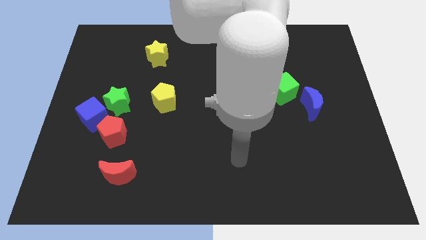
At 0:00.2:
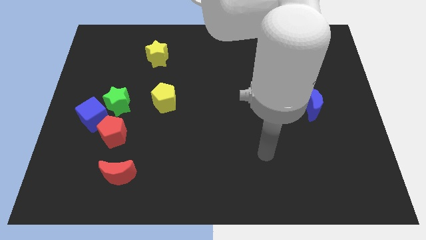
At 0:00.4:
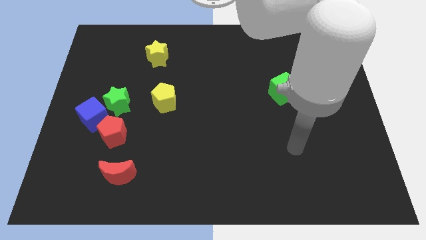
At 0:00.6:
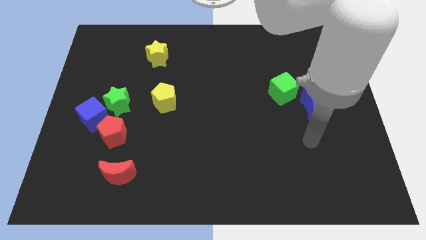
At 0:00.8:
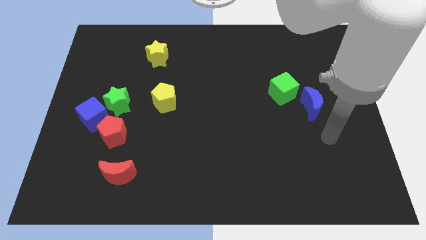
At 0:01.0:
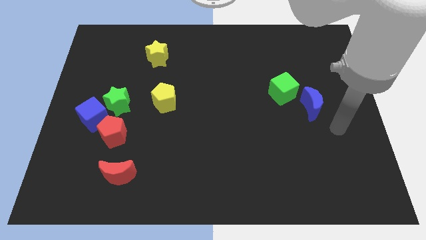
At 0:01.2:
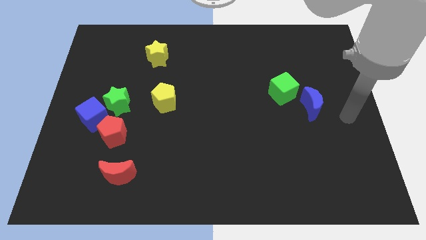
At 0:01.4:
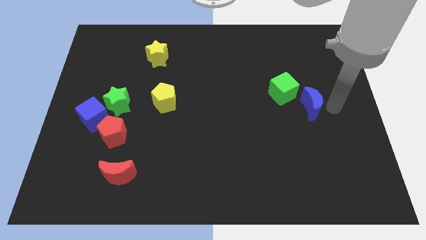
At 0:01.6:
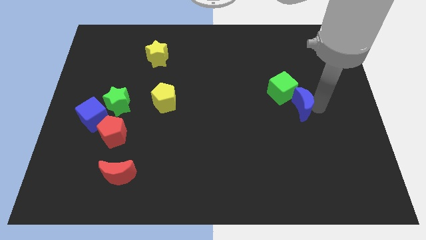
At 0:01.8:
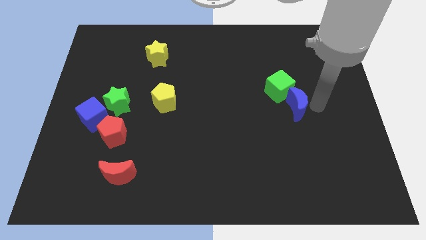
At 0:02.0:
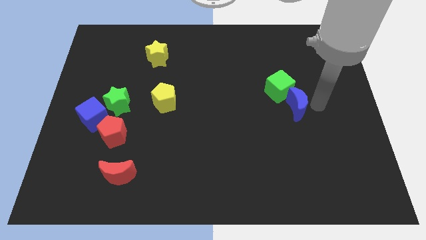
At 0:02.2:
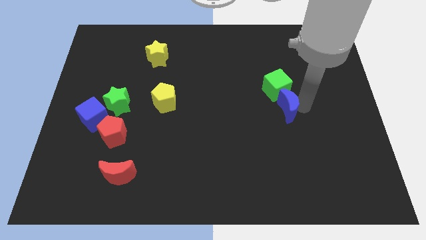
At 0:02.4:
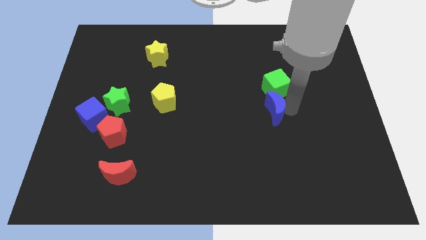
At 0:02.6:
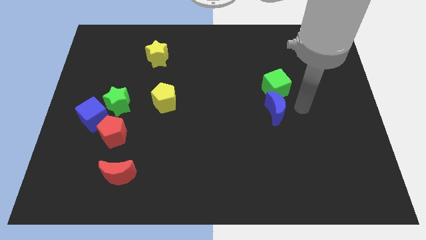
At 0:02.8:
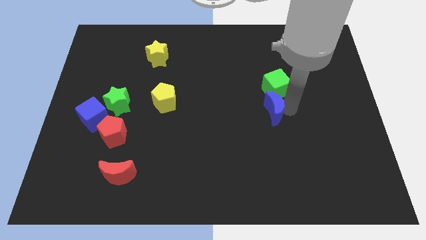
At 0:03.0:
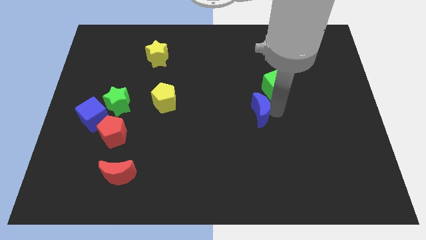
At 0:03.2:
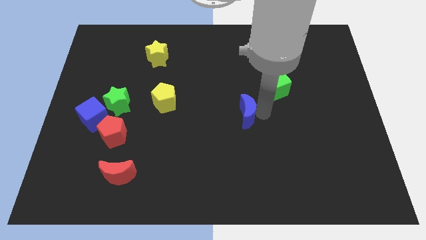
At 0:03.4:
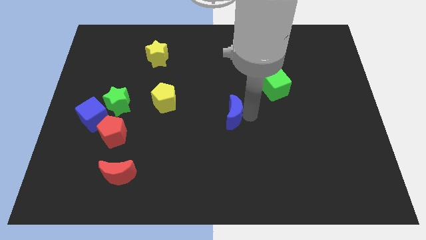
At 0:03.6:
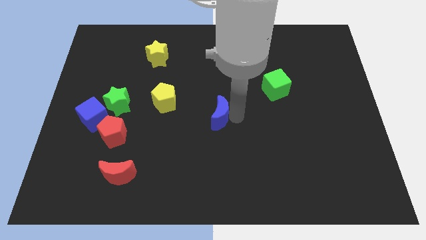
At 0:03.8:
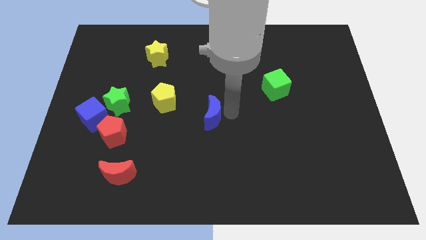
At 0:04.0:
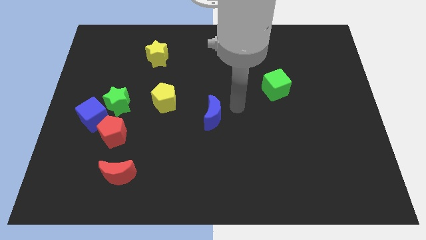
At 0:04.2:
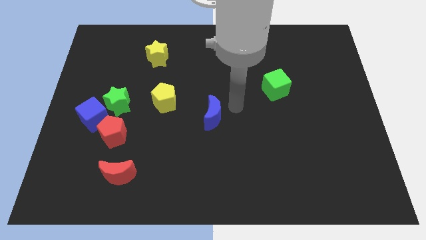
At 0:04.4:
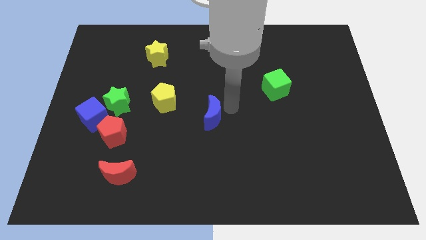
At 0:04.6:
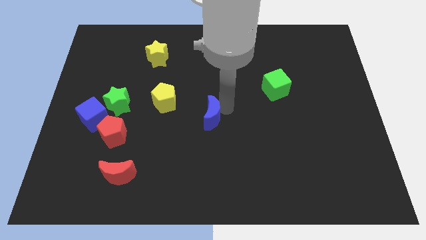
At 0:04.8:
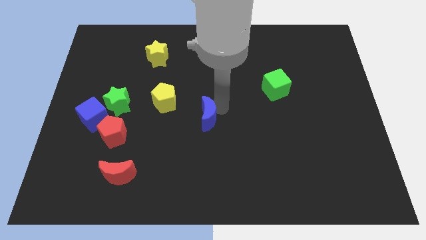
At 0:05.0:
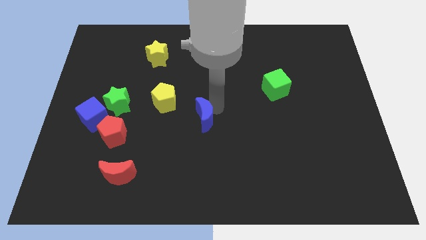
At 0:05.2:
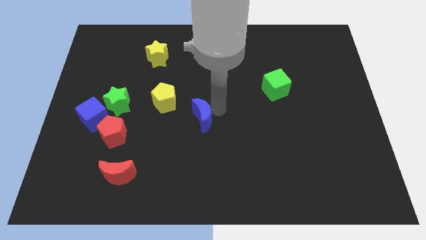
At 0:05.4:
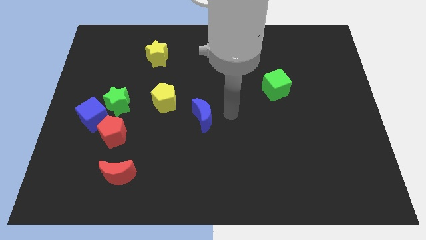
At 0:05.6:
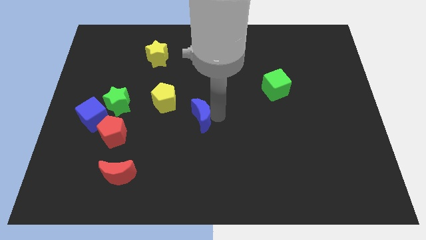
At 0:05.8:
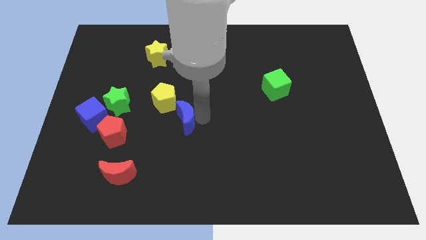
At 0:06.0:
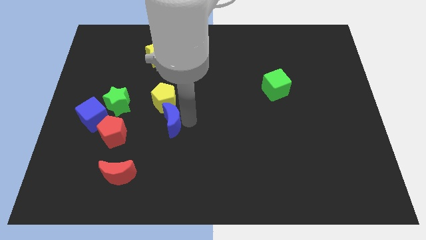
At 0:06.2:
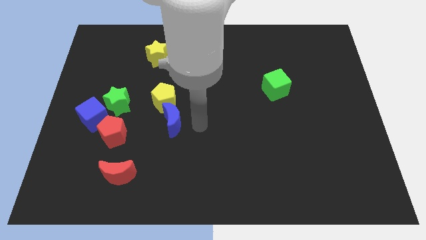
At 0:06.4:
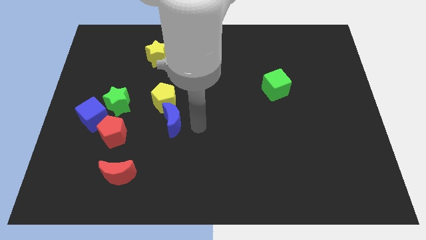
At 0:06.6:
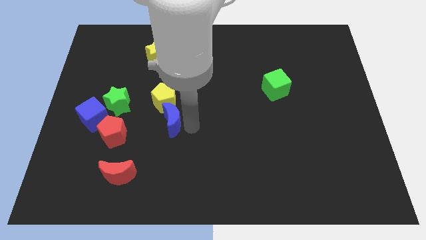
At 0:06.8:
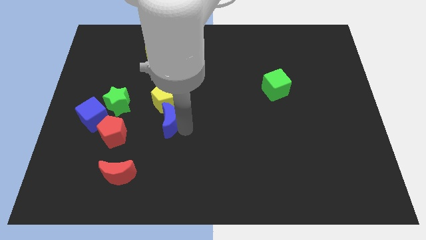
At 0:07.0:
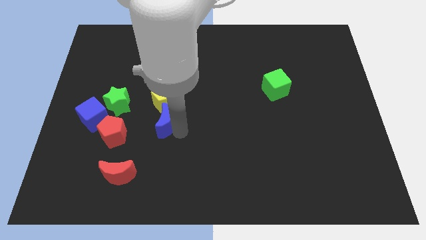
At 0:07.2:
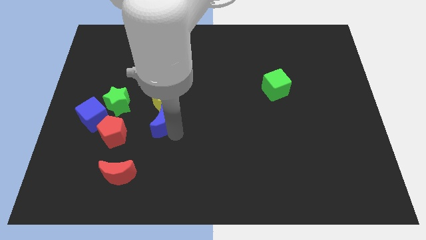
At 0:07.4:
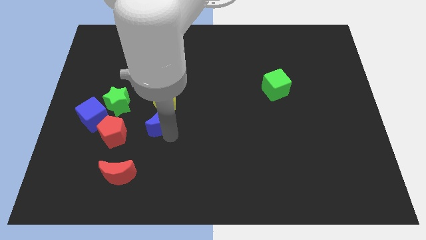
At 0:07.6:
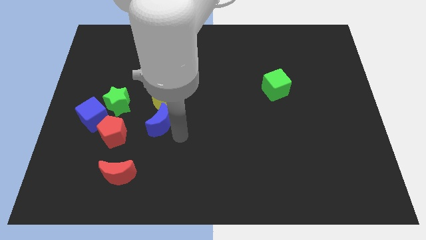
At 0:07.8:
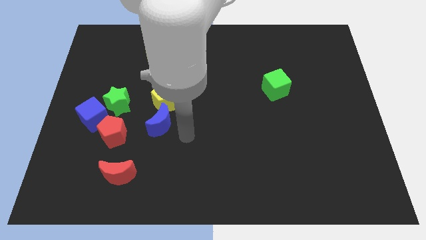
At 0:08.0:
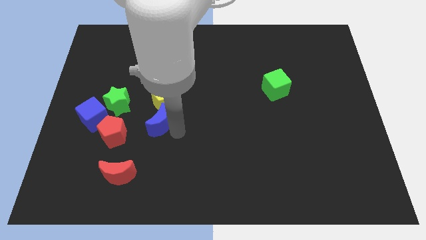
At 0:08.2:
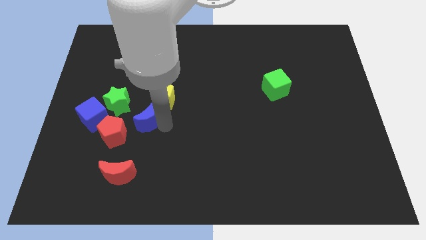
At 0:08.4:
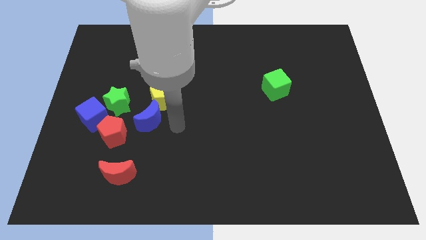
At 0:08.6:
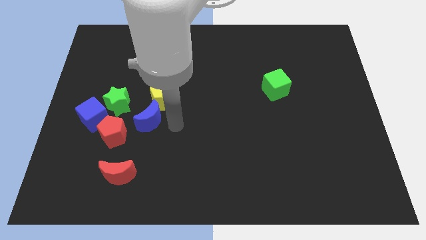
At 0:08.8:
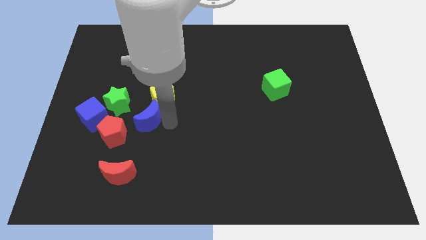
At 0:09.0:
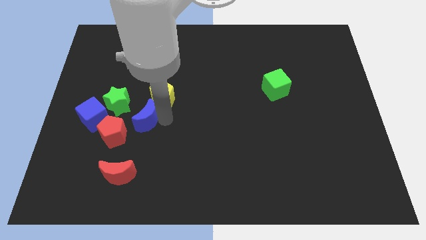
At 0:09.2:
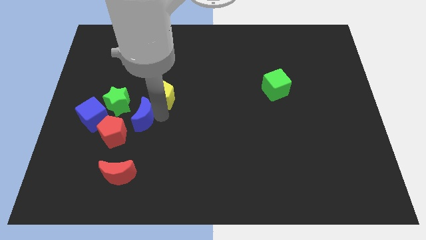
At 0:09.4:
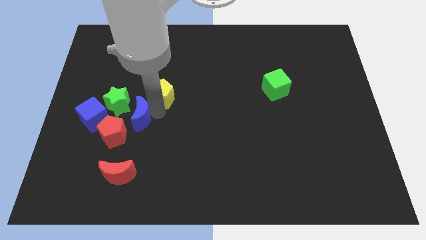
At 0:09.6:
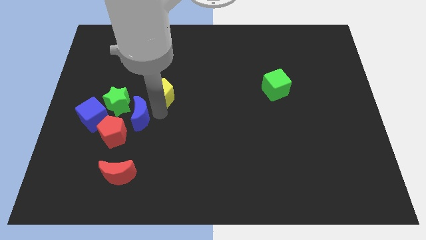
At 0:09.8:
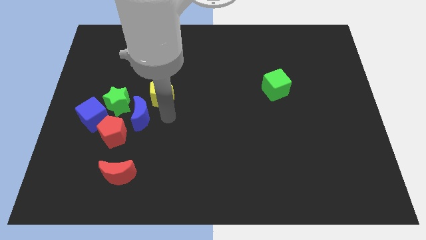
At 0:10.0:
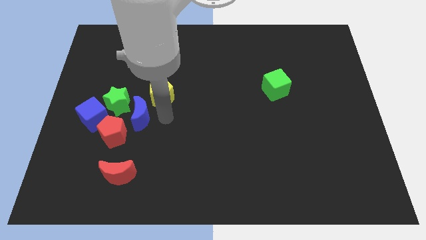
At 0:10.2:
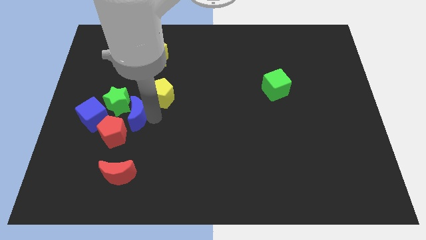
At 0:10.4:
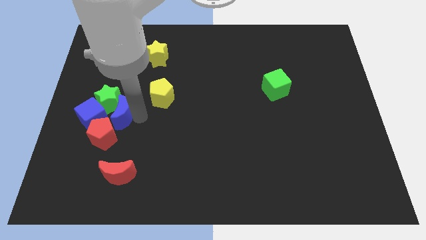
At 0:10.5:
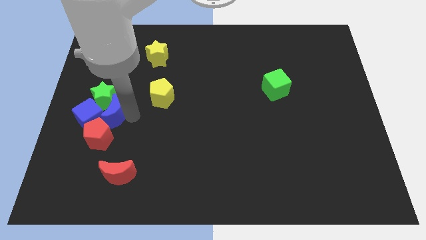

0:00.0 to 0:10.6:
put the blue moon to the blue cube
